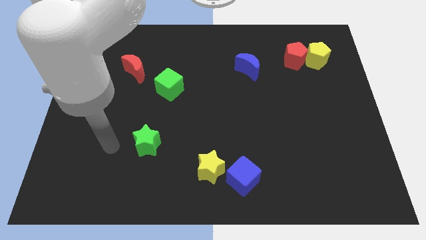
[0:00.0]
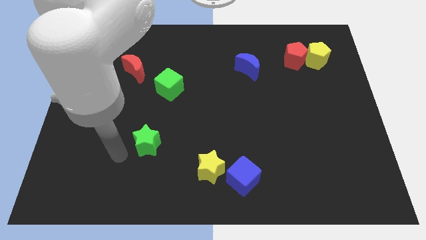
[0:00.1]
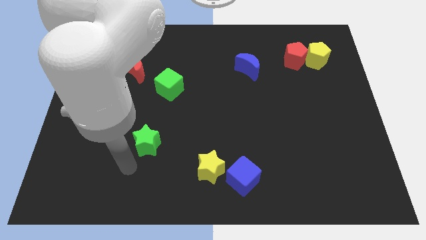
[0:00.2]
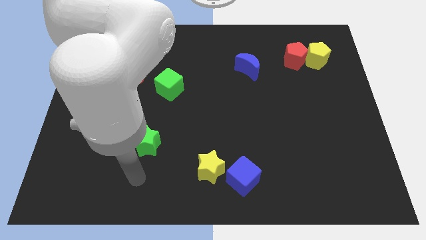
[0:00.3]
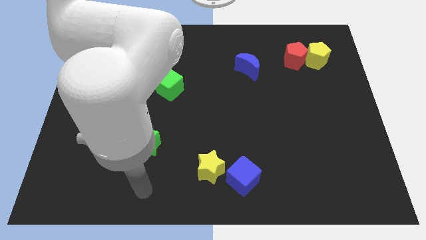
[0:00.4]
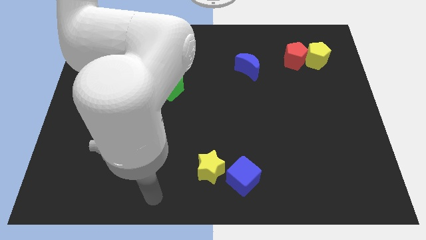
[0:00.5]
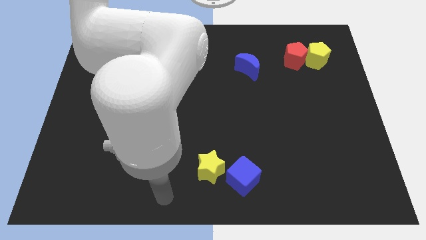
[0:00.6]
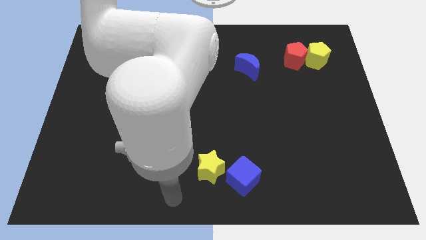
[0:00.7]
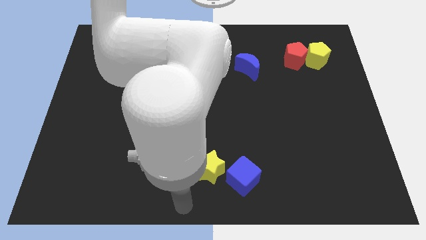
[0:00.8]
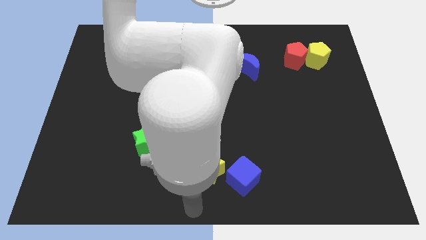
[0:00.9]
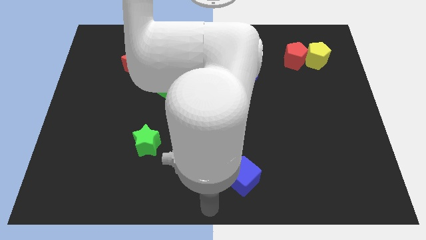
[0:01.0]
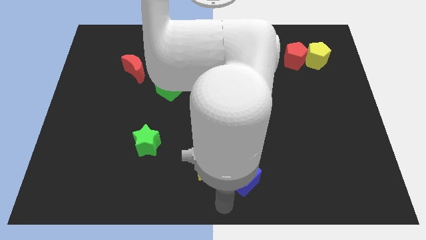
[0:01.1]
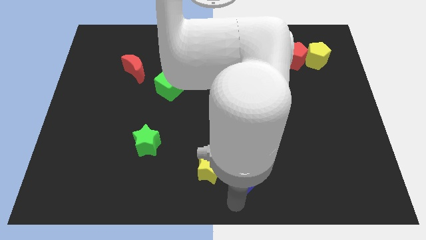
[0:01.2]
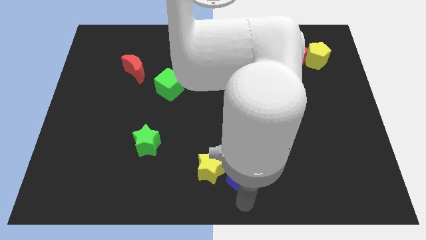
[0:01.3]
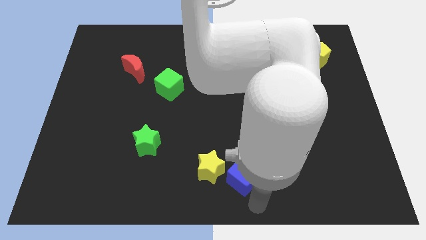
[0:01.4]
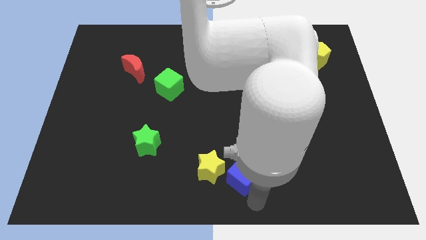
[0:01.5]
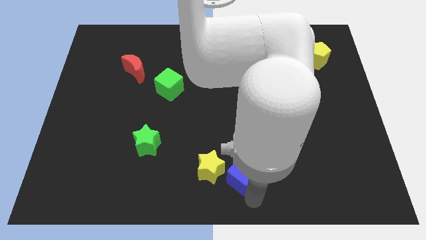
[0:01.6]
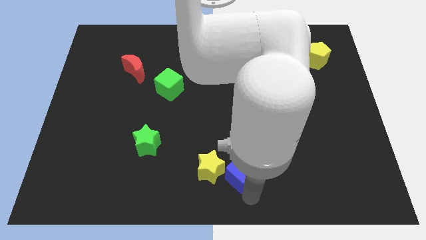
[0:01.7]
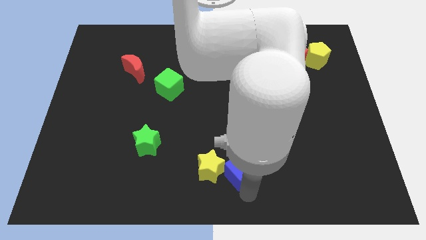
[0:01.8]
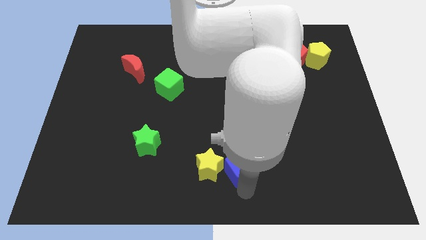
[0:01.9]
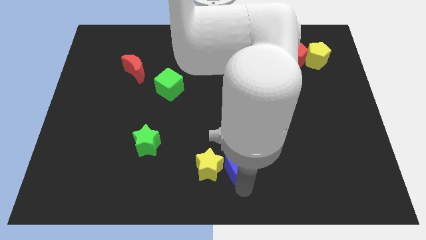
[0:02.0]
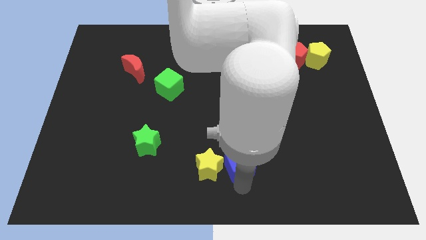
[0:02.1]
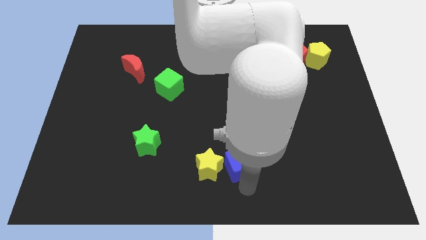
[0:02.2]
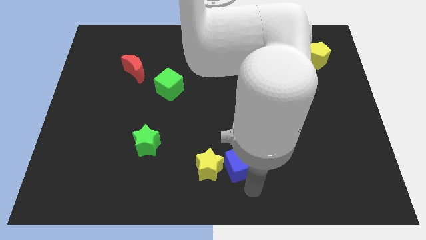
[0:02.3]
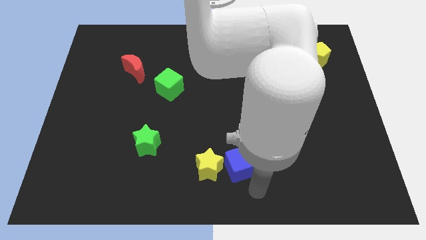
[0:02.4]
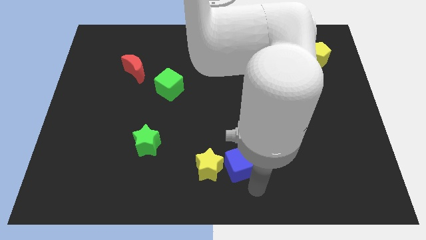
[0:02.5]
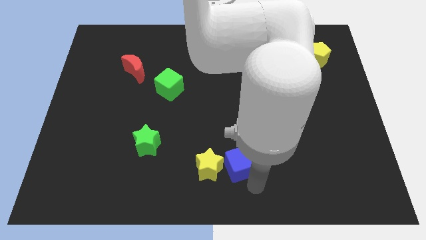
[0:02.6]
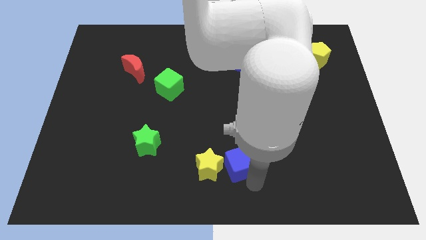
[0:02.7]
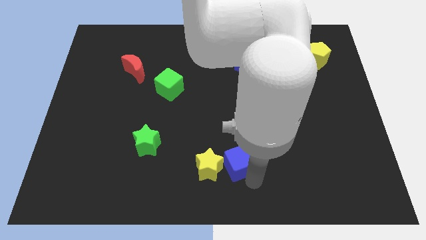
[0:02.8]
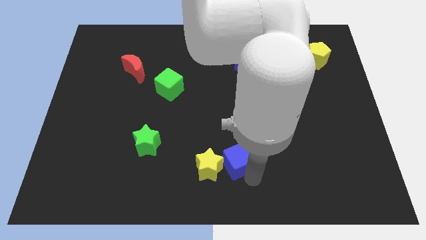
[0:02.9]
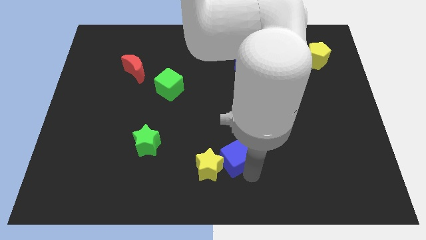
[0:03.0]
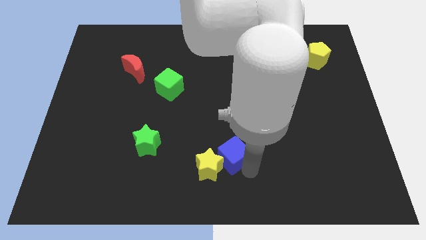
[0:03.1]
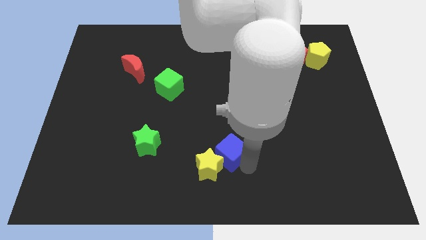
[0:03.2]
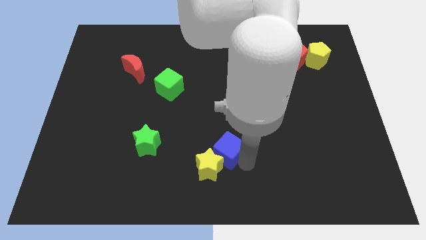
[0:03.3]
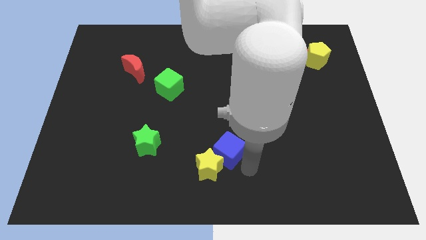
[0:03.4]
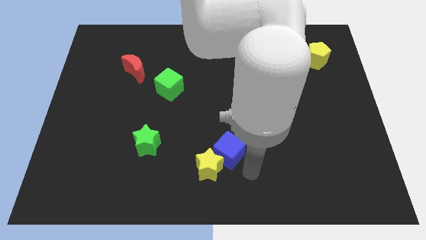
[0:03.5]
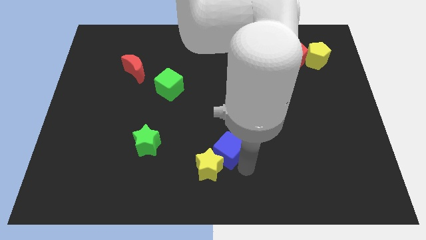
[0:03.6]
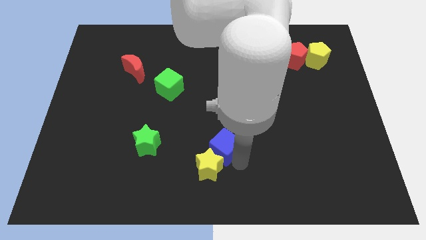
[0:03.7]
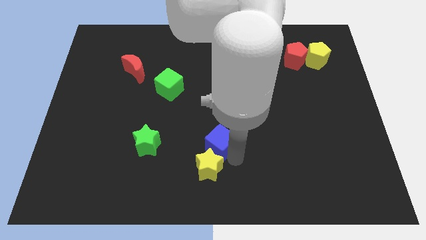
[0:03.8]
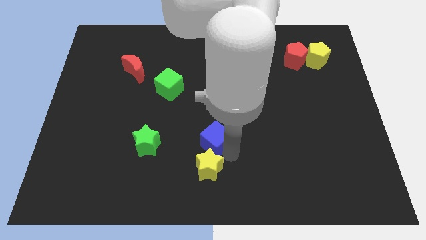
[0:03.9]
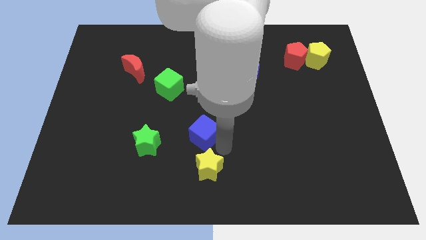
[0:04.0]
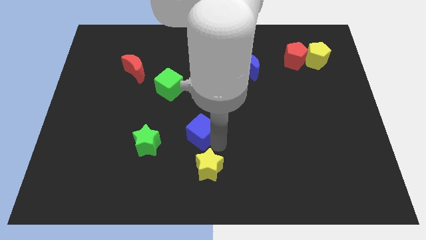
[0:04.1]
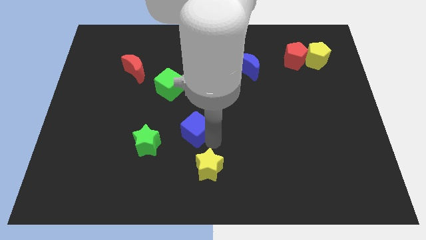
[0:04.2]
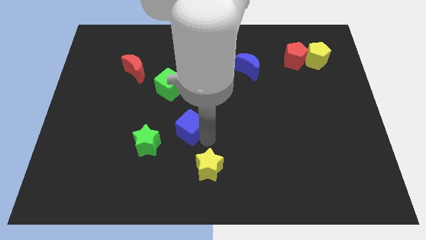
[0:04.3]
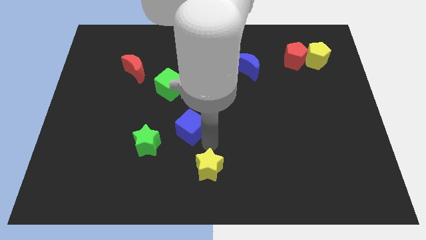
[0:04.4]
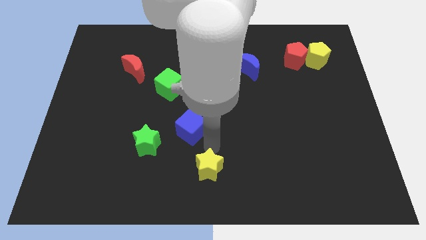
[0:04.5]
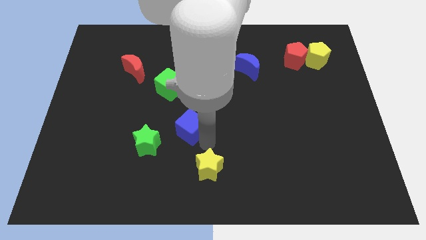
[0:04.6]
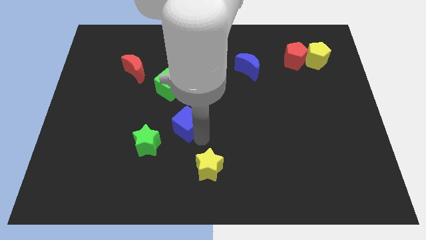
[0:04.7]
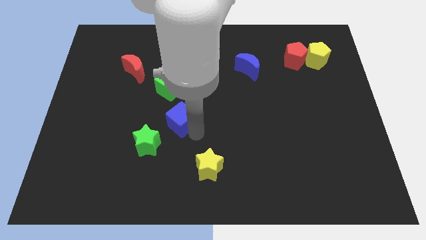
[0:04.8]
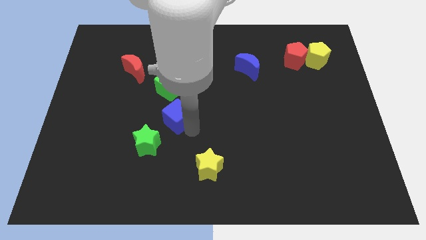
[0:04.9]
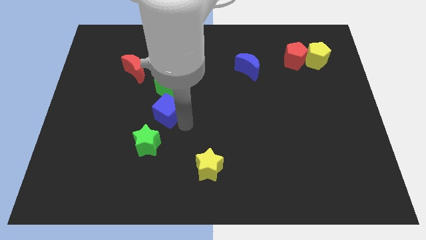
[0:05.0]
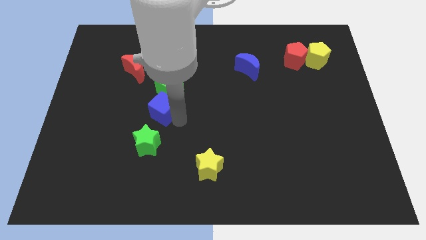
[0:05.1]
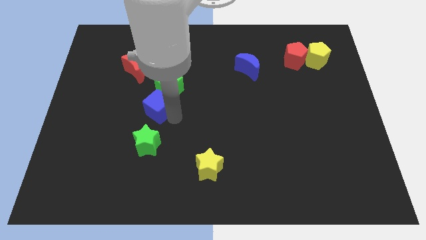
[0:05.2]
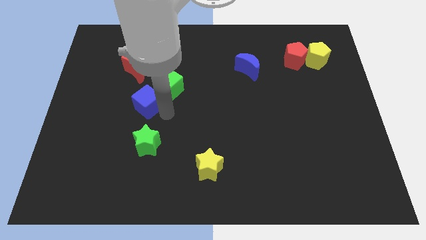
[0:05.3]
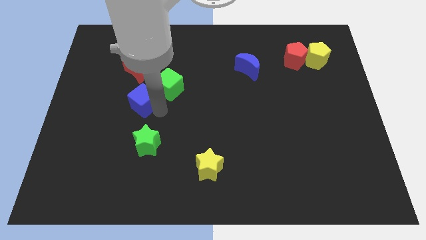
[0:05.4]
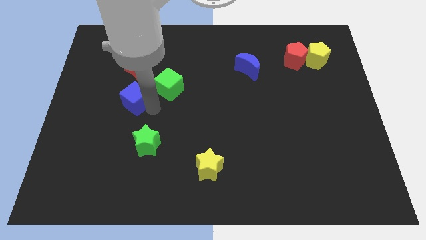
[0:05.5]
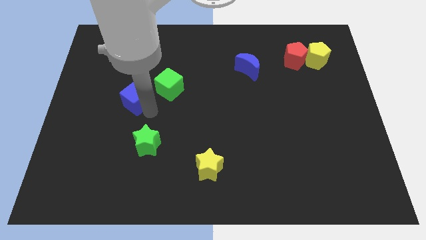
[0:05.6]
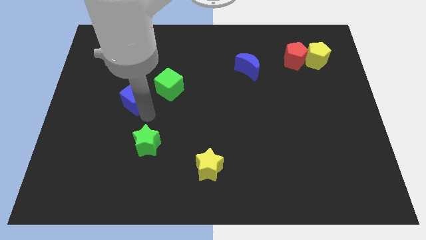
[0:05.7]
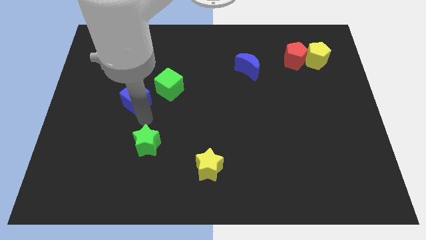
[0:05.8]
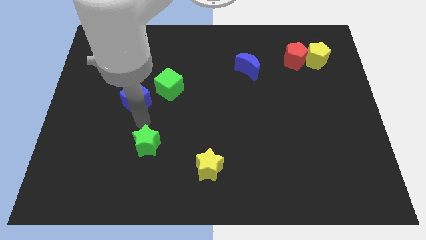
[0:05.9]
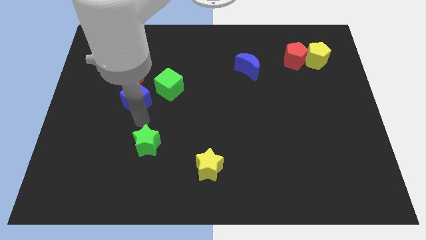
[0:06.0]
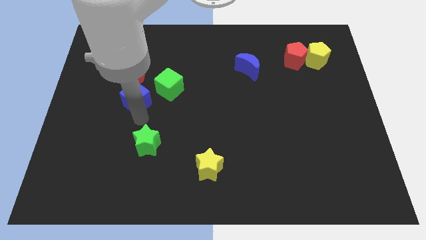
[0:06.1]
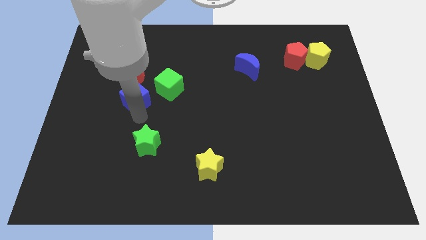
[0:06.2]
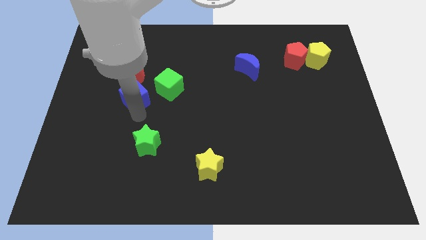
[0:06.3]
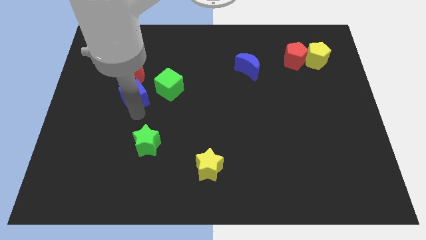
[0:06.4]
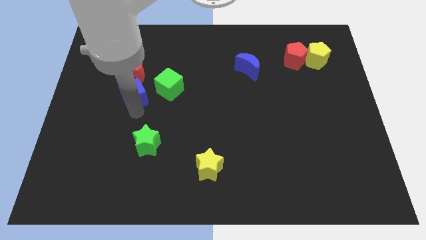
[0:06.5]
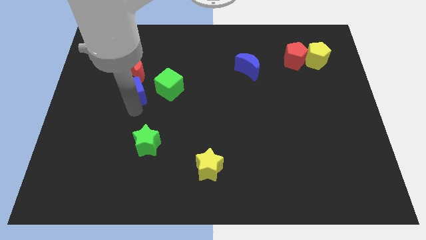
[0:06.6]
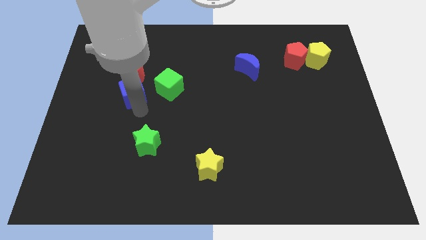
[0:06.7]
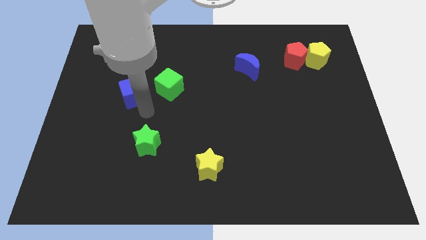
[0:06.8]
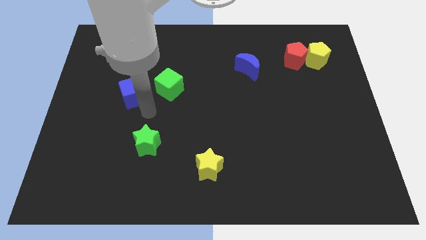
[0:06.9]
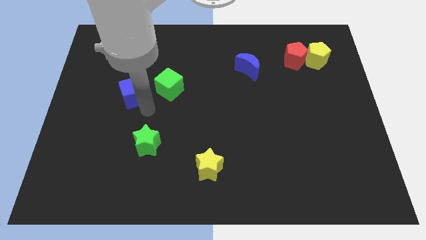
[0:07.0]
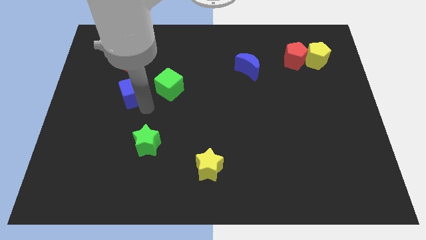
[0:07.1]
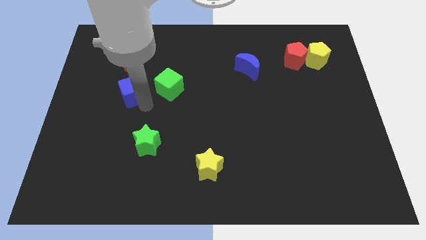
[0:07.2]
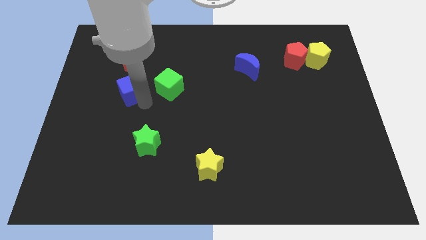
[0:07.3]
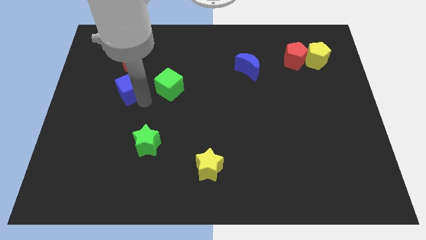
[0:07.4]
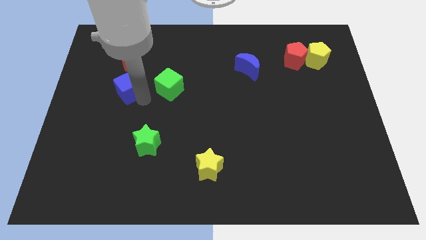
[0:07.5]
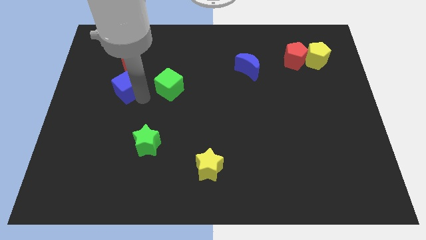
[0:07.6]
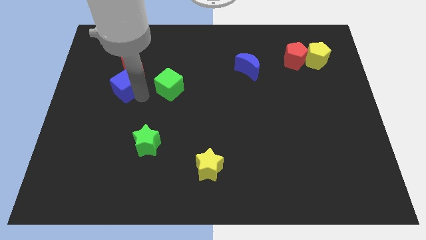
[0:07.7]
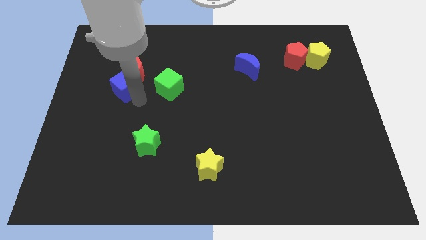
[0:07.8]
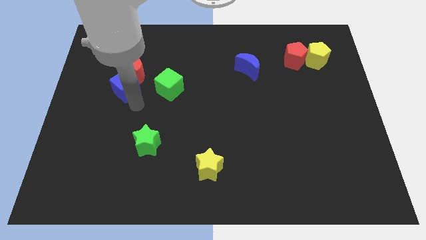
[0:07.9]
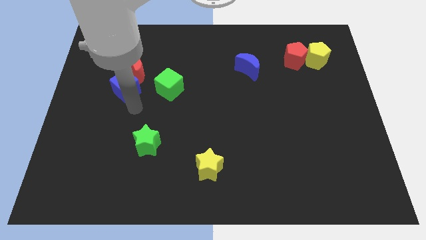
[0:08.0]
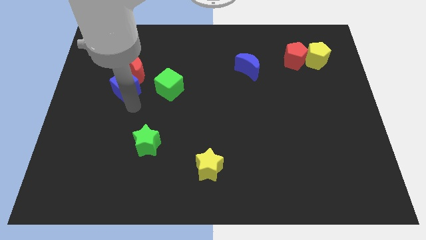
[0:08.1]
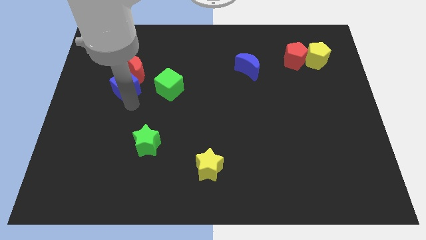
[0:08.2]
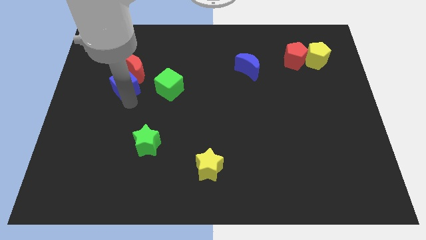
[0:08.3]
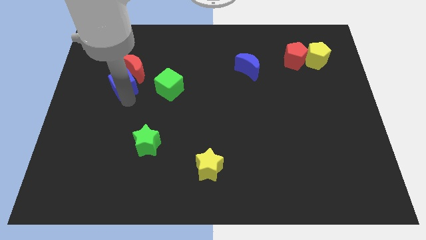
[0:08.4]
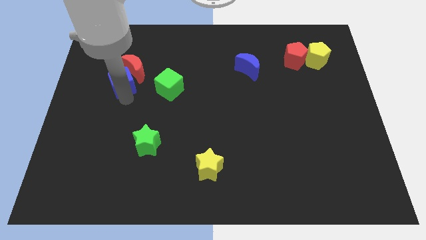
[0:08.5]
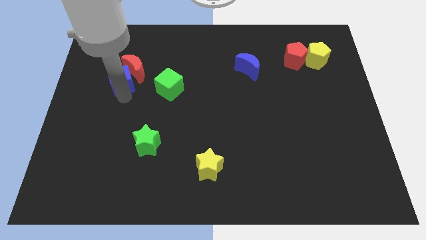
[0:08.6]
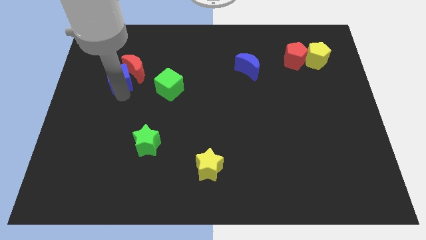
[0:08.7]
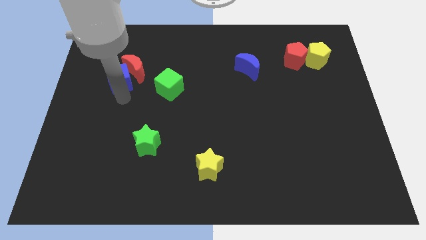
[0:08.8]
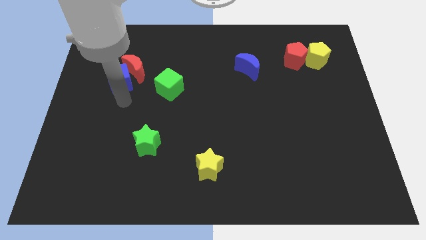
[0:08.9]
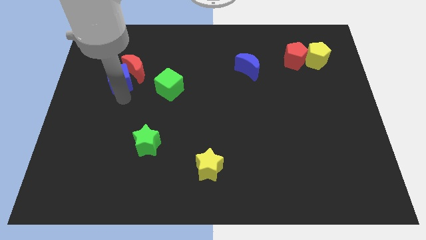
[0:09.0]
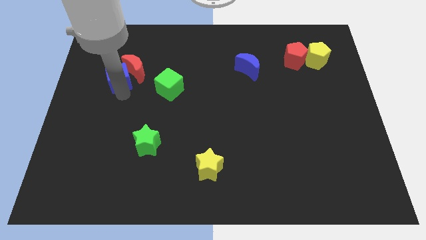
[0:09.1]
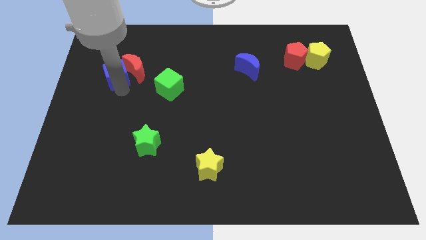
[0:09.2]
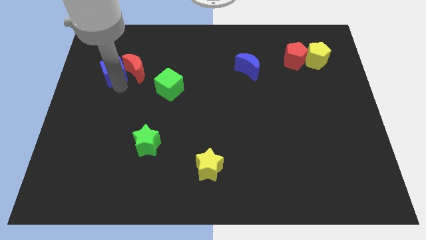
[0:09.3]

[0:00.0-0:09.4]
slide the blue cube to the top left side of the red moon
